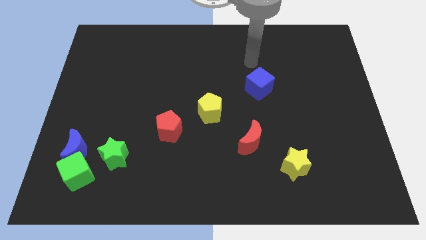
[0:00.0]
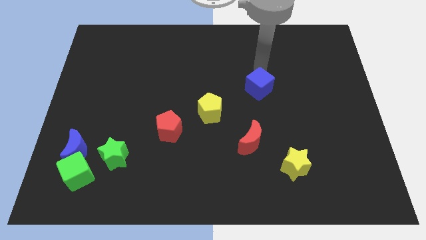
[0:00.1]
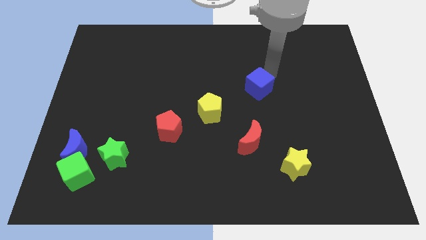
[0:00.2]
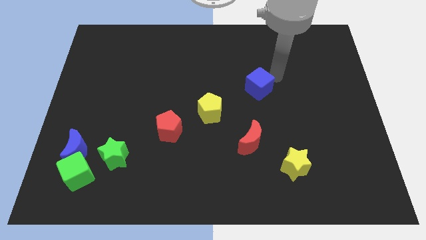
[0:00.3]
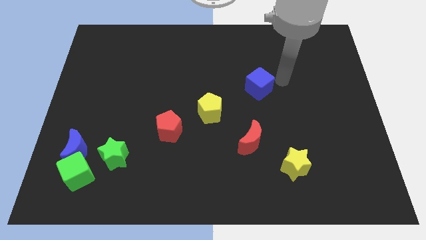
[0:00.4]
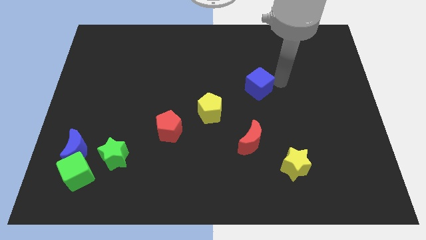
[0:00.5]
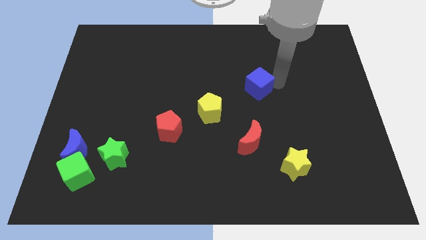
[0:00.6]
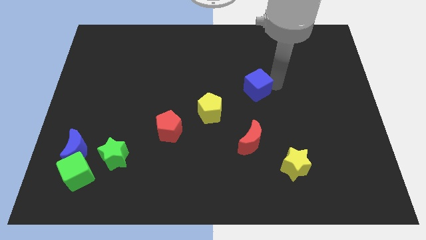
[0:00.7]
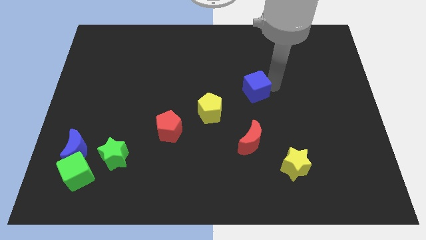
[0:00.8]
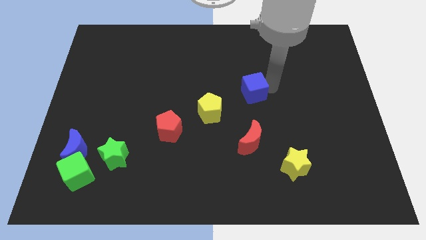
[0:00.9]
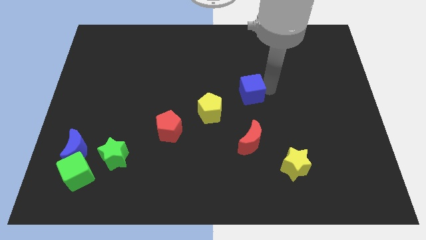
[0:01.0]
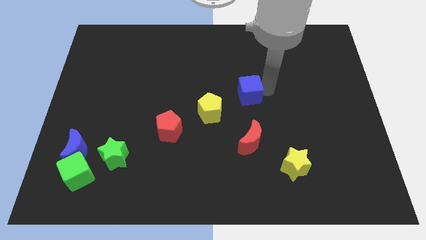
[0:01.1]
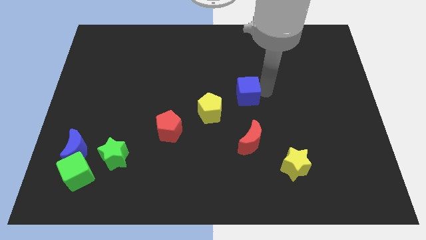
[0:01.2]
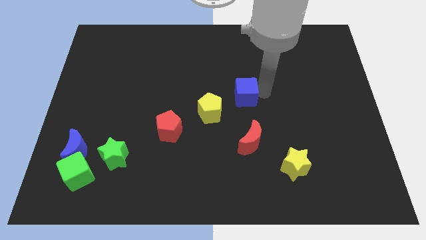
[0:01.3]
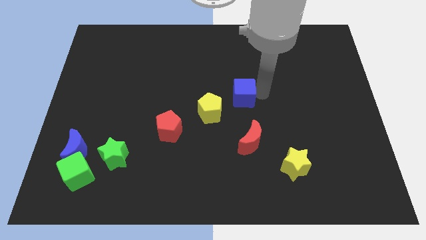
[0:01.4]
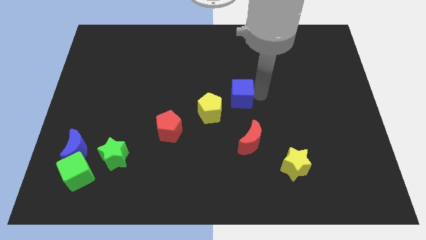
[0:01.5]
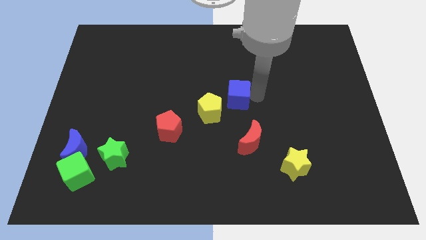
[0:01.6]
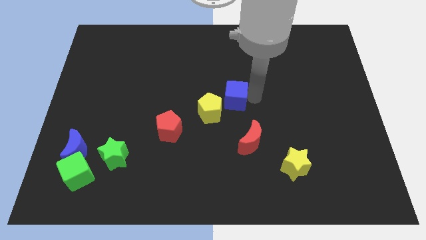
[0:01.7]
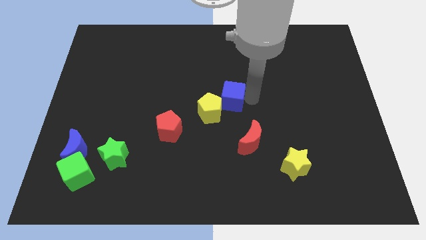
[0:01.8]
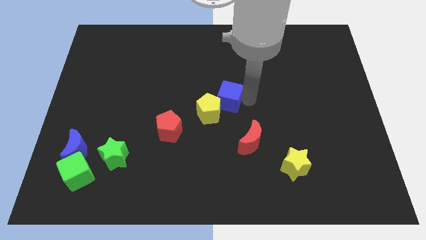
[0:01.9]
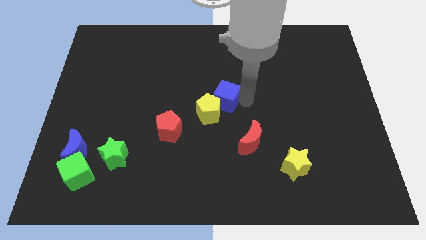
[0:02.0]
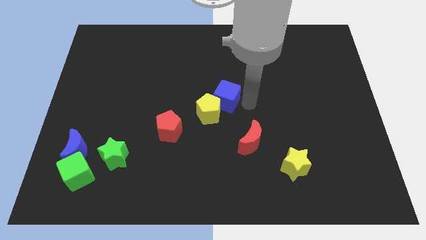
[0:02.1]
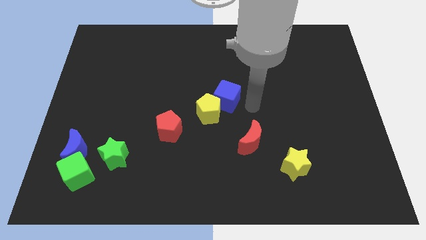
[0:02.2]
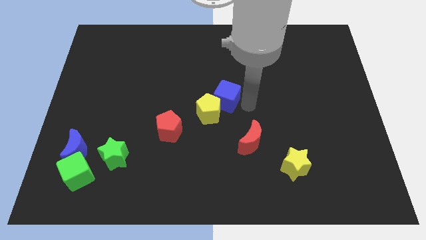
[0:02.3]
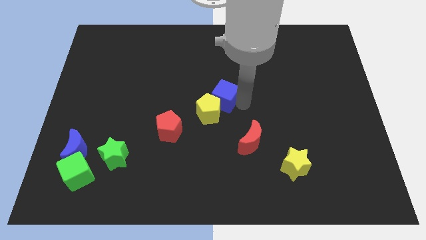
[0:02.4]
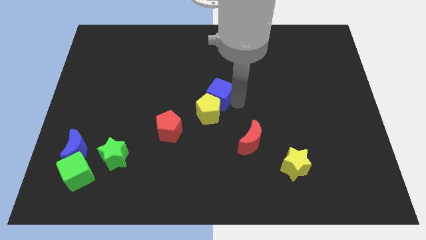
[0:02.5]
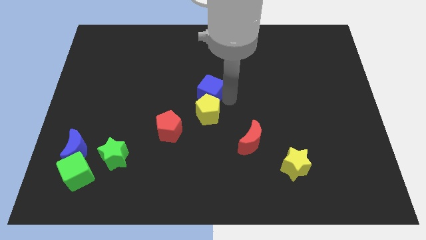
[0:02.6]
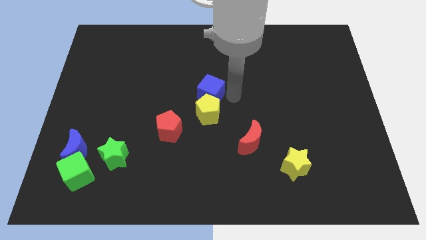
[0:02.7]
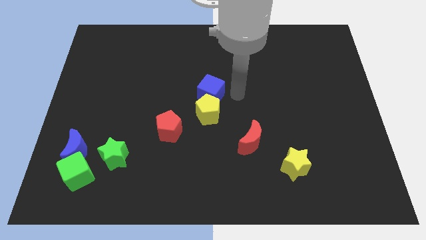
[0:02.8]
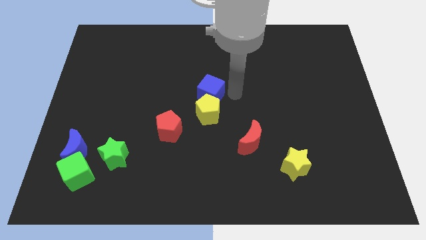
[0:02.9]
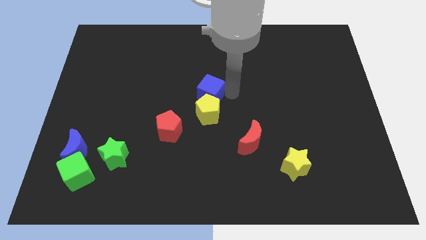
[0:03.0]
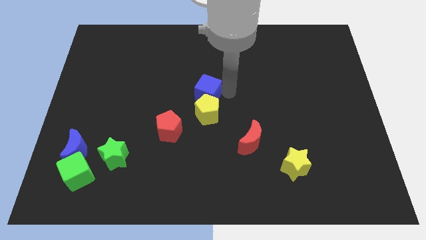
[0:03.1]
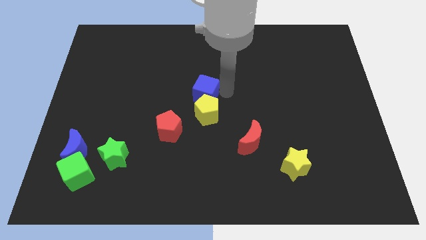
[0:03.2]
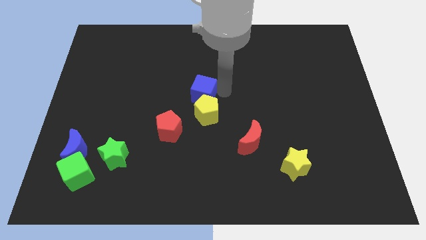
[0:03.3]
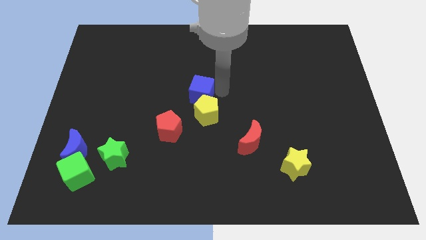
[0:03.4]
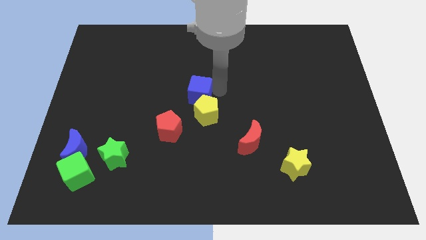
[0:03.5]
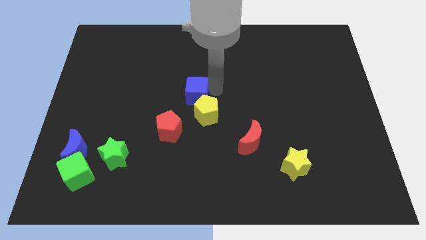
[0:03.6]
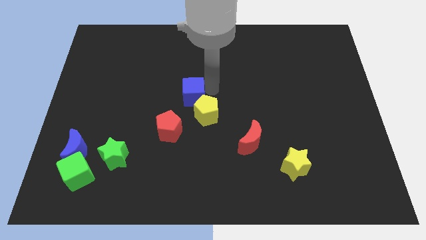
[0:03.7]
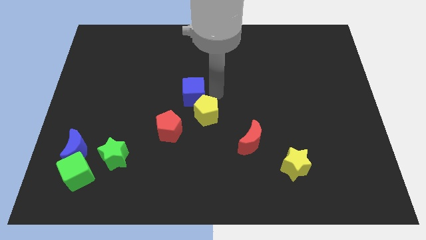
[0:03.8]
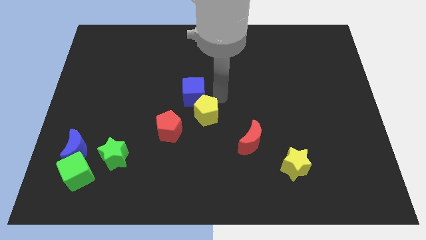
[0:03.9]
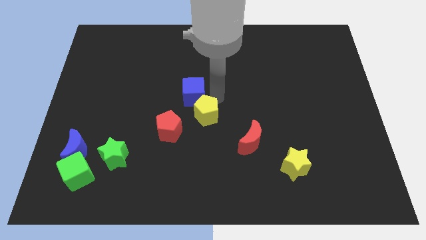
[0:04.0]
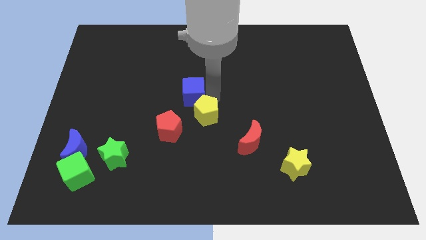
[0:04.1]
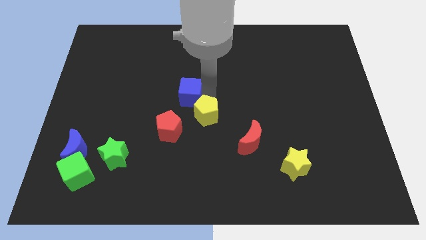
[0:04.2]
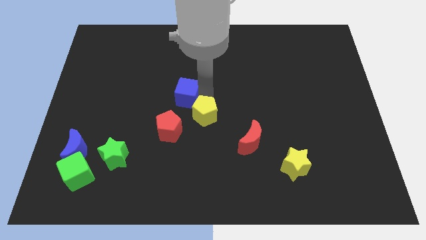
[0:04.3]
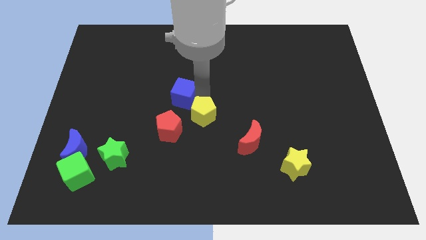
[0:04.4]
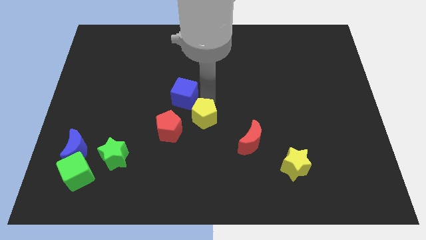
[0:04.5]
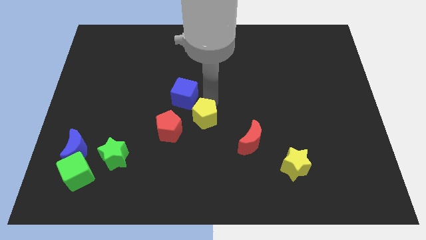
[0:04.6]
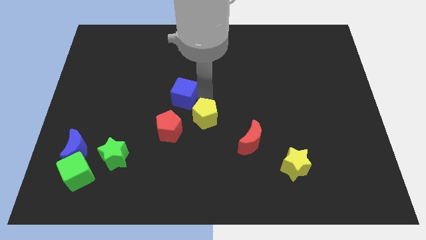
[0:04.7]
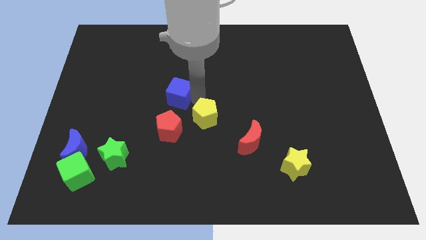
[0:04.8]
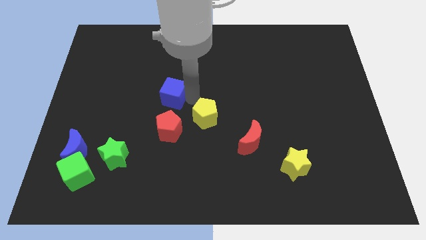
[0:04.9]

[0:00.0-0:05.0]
move the blue cube to the left

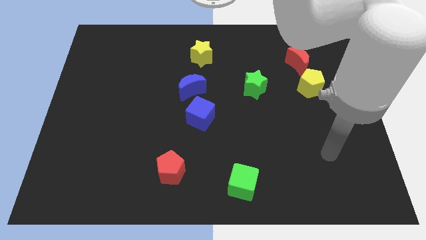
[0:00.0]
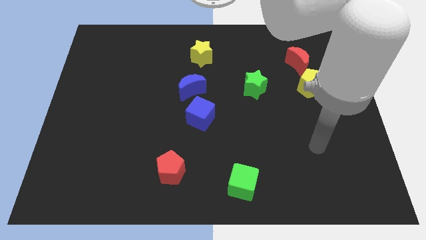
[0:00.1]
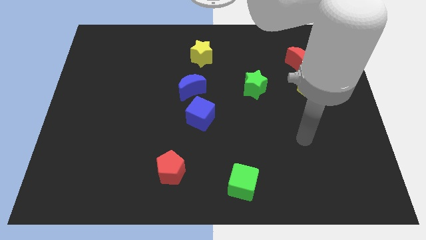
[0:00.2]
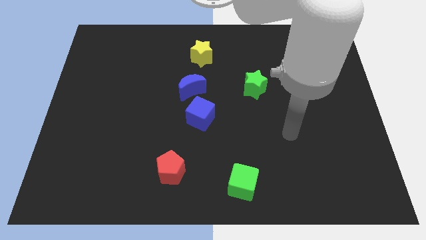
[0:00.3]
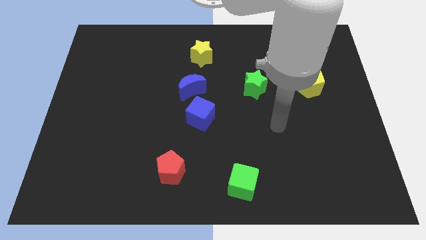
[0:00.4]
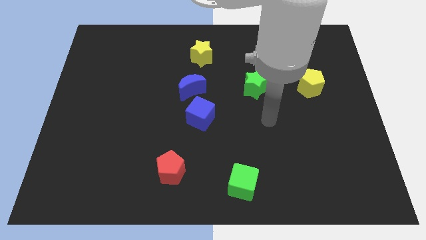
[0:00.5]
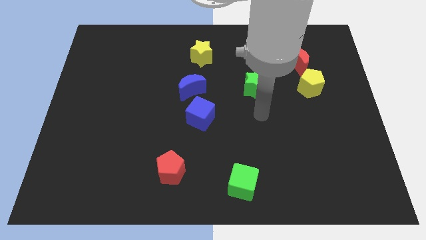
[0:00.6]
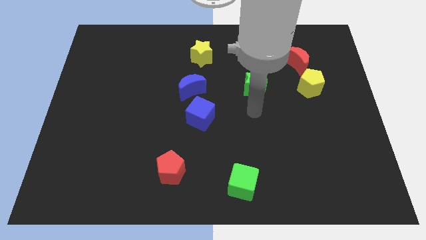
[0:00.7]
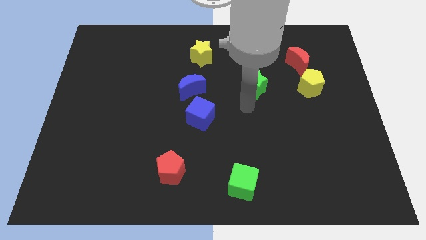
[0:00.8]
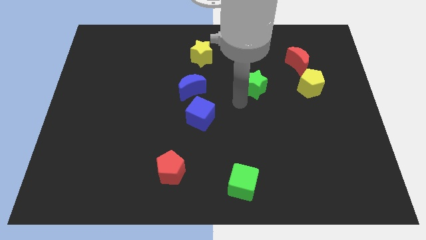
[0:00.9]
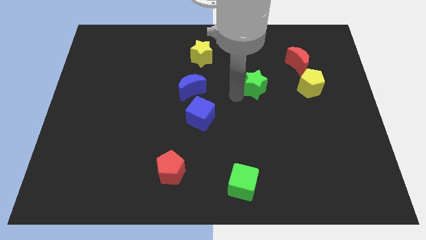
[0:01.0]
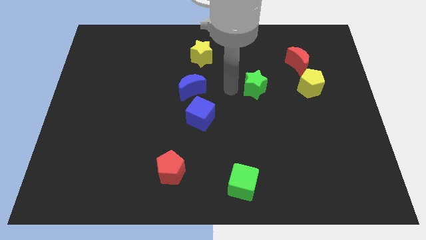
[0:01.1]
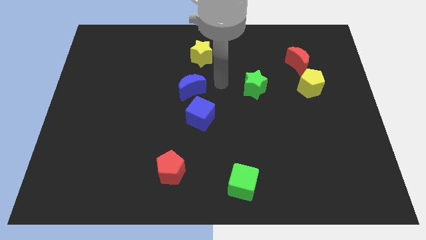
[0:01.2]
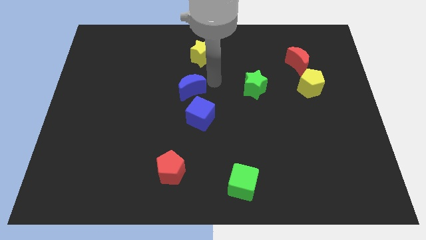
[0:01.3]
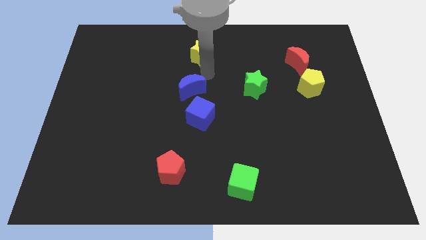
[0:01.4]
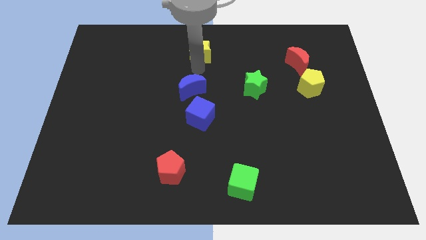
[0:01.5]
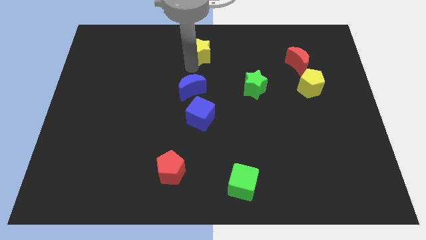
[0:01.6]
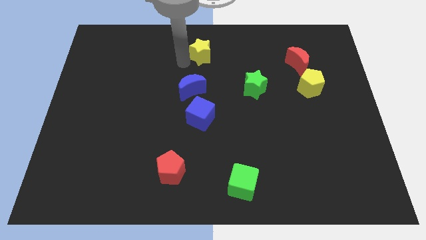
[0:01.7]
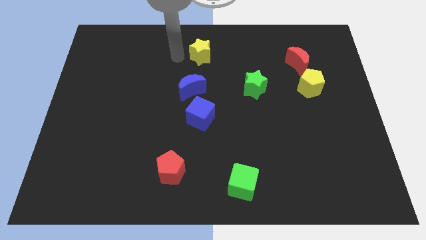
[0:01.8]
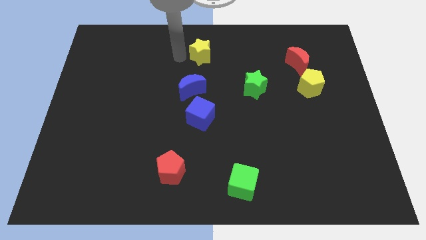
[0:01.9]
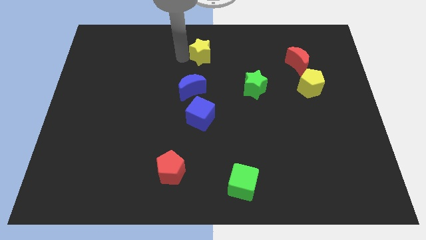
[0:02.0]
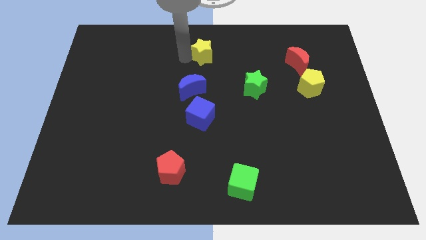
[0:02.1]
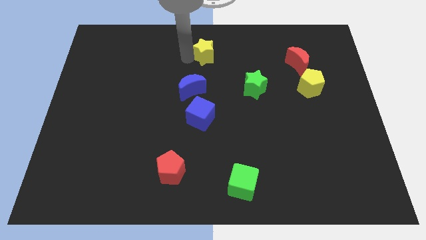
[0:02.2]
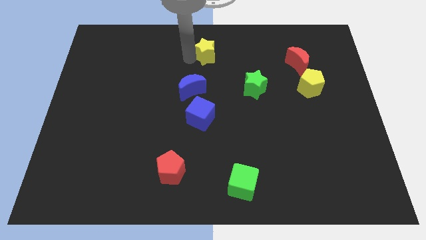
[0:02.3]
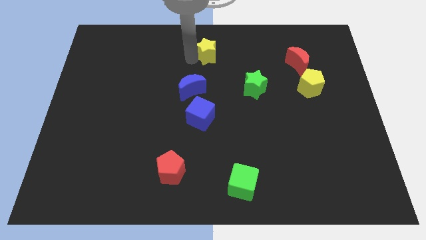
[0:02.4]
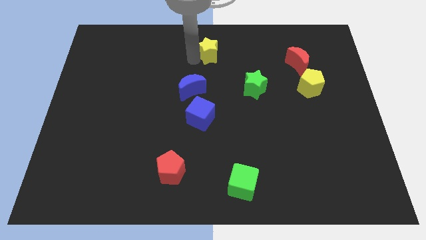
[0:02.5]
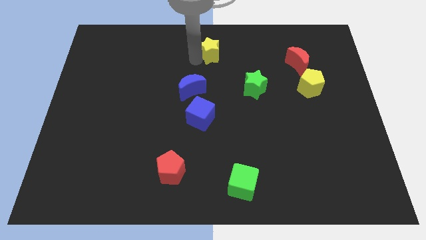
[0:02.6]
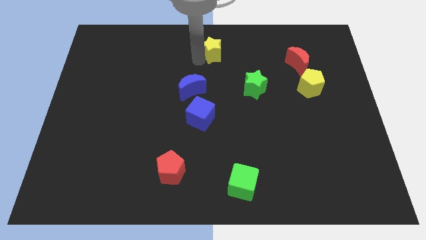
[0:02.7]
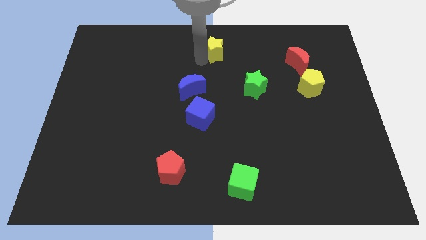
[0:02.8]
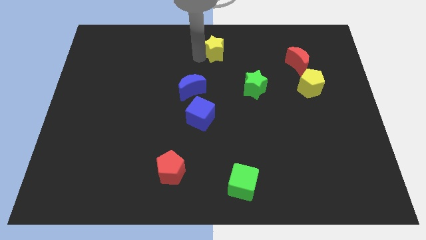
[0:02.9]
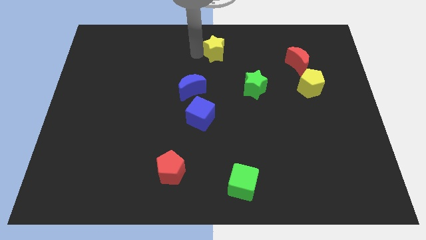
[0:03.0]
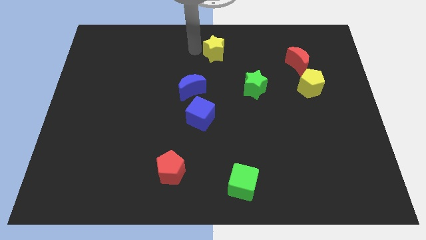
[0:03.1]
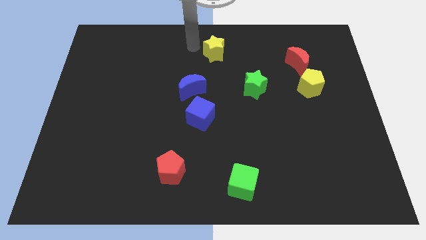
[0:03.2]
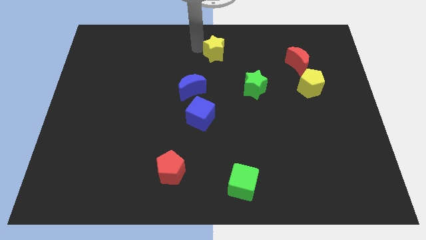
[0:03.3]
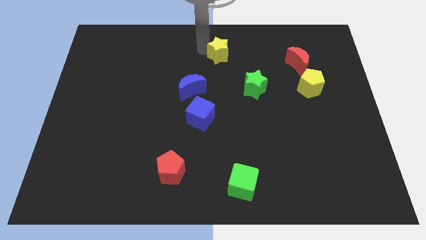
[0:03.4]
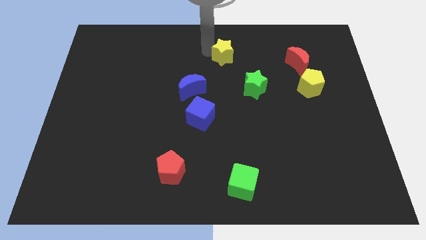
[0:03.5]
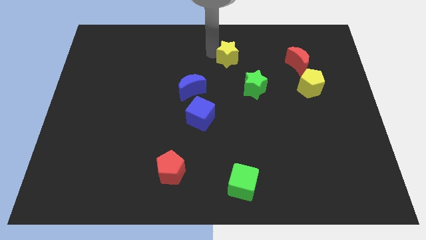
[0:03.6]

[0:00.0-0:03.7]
push the yellow star to the right somewhat

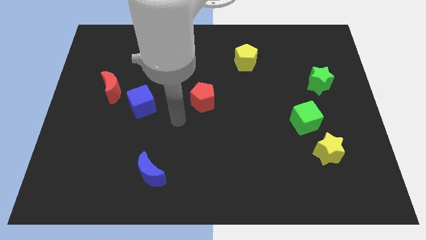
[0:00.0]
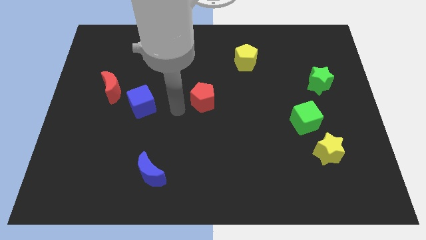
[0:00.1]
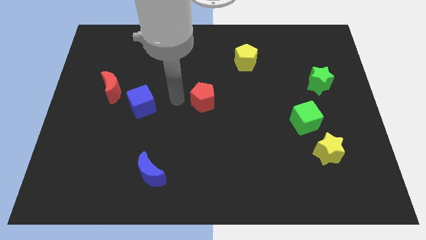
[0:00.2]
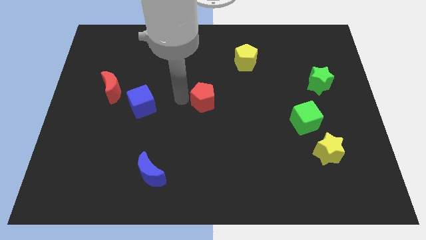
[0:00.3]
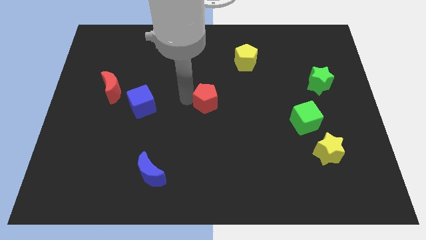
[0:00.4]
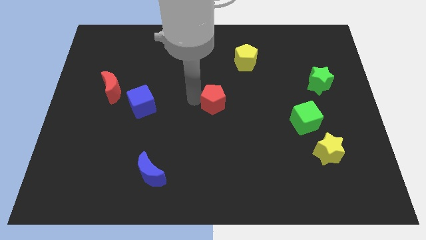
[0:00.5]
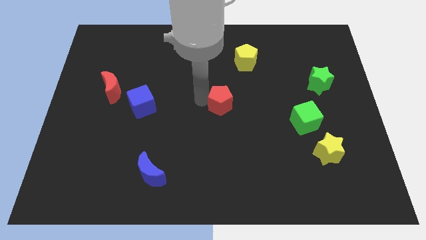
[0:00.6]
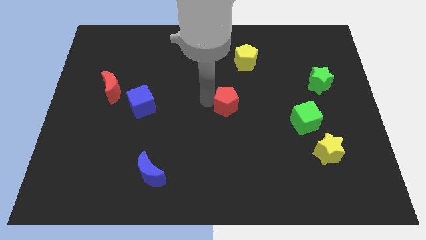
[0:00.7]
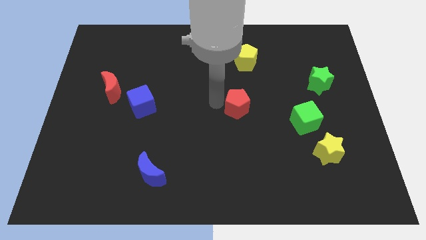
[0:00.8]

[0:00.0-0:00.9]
slide the red pentagon right a little
